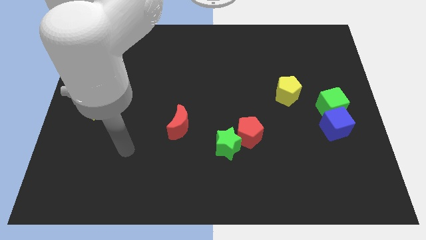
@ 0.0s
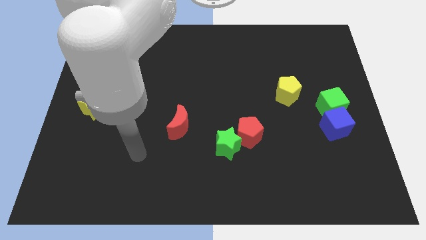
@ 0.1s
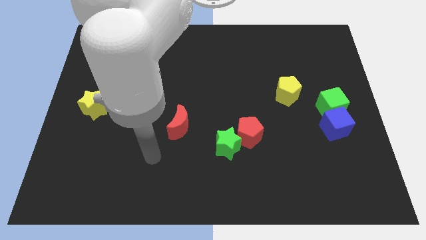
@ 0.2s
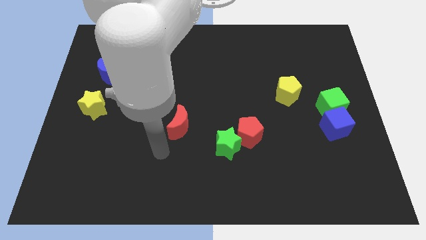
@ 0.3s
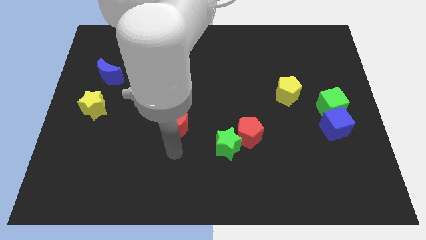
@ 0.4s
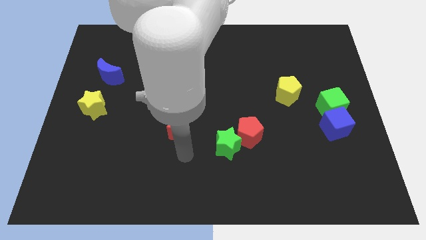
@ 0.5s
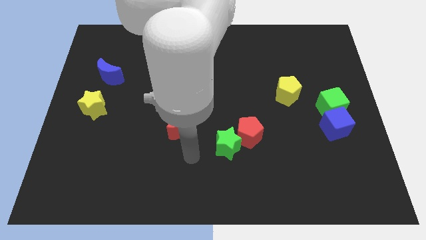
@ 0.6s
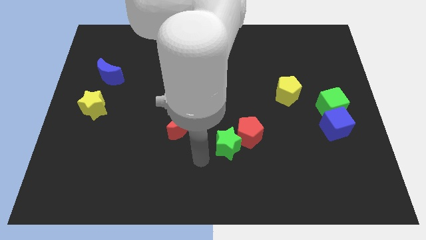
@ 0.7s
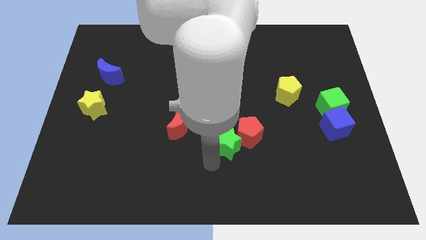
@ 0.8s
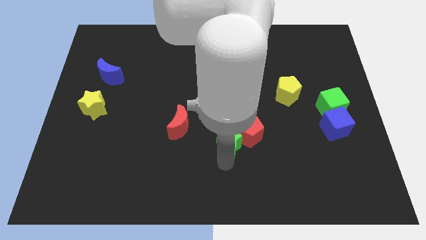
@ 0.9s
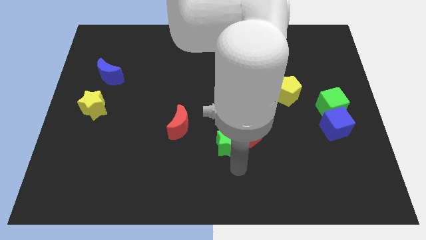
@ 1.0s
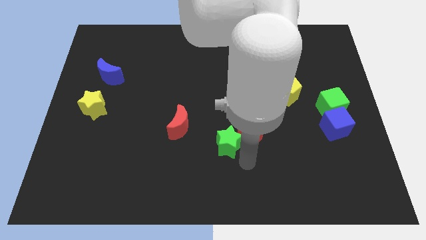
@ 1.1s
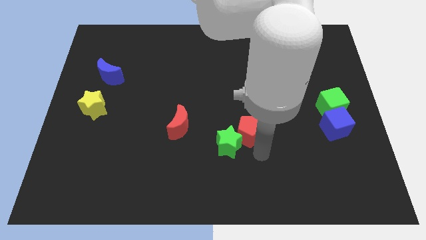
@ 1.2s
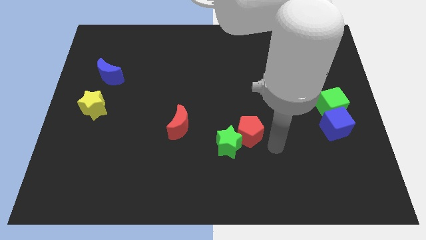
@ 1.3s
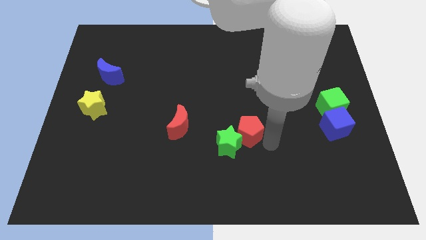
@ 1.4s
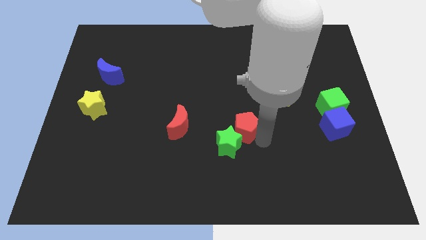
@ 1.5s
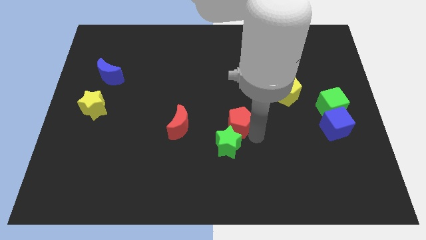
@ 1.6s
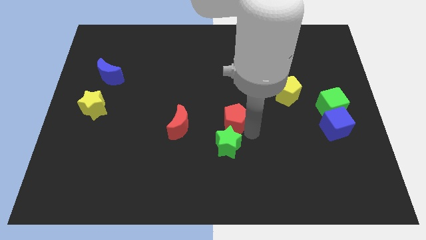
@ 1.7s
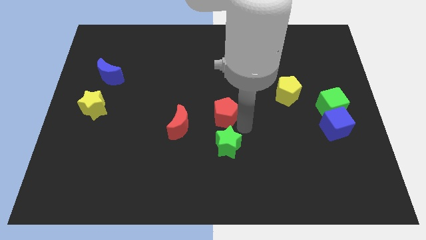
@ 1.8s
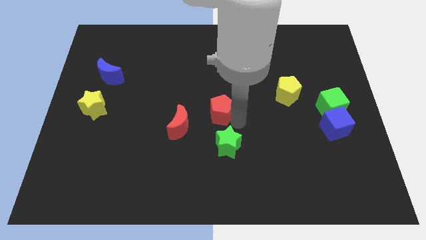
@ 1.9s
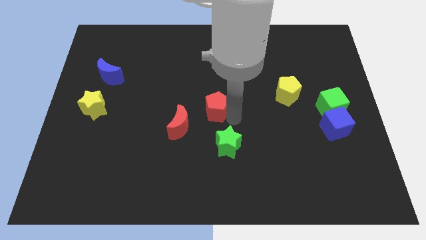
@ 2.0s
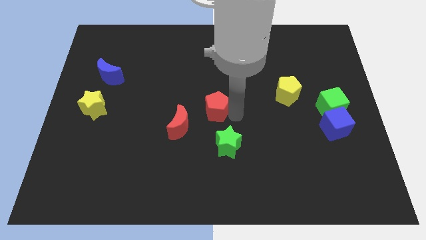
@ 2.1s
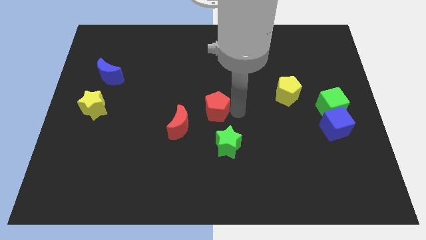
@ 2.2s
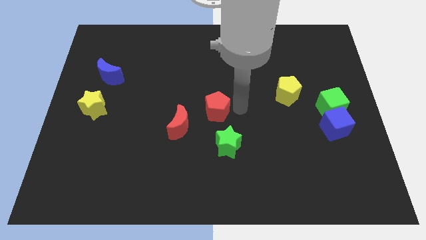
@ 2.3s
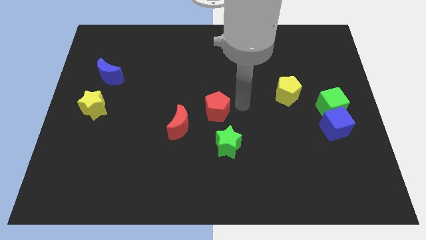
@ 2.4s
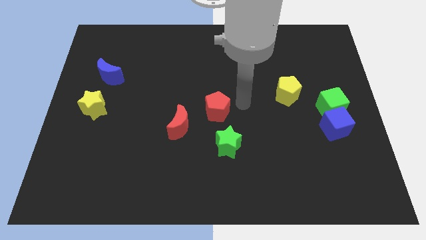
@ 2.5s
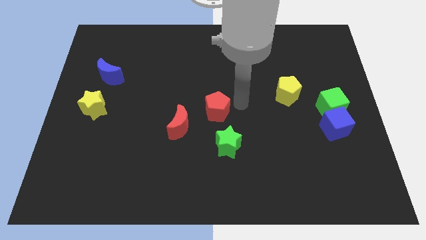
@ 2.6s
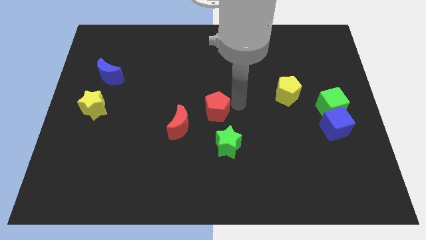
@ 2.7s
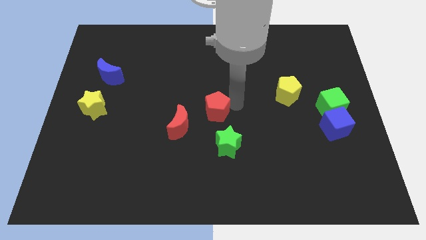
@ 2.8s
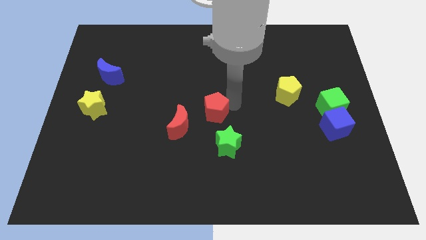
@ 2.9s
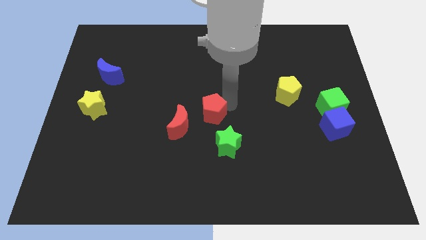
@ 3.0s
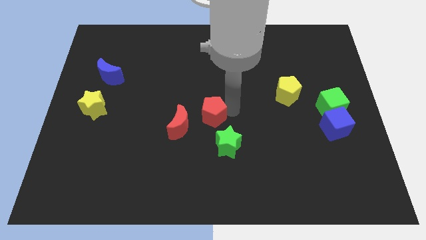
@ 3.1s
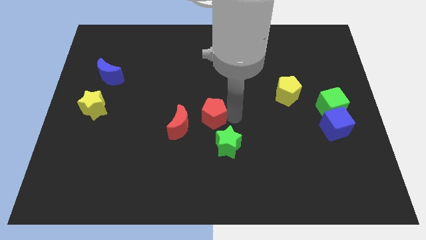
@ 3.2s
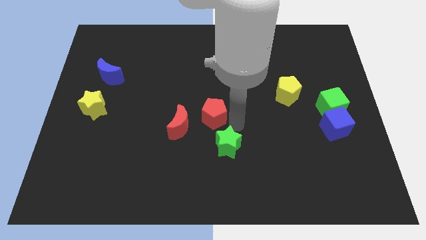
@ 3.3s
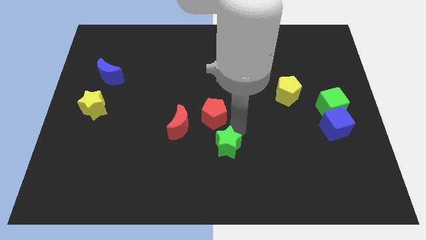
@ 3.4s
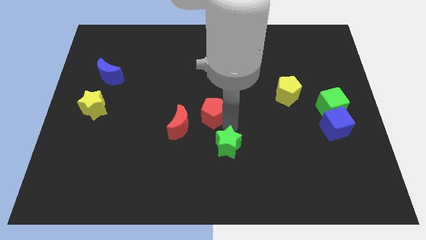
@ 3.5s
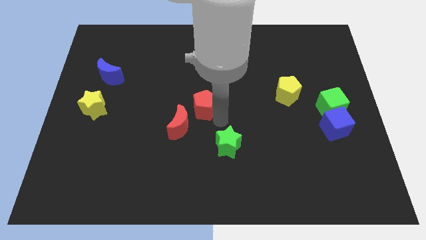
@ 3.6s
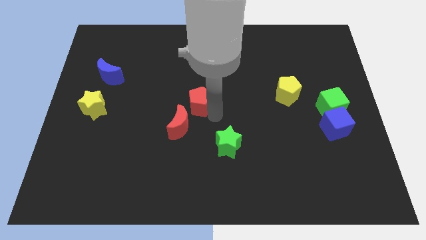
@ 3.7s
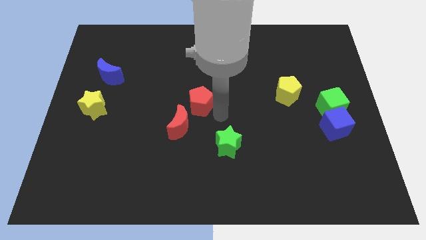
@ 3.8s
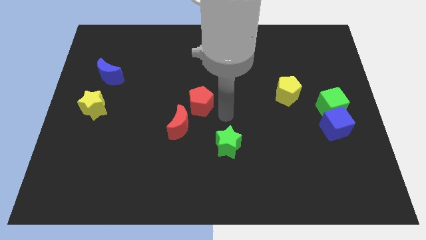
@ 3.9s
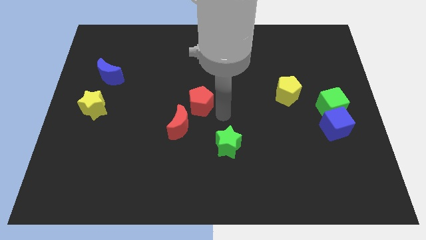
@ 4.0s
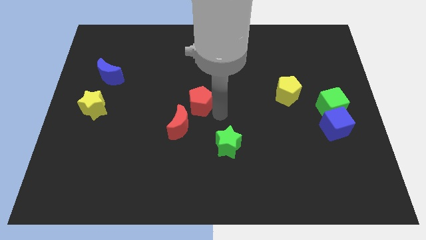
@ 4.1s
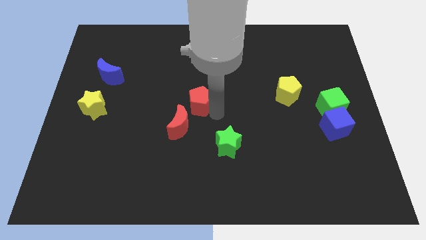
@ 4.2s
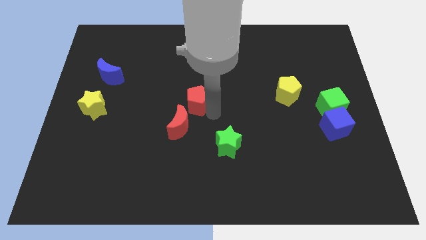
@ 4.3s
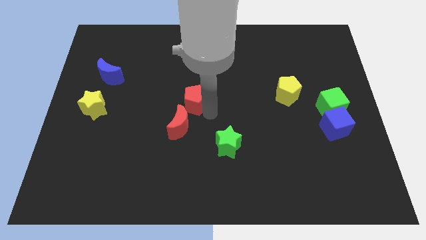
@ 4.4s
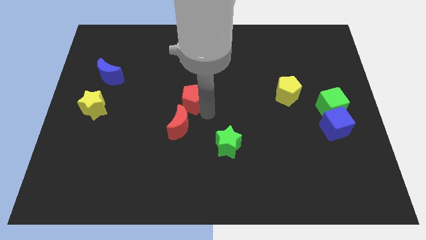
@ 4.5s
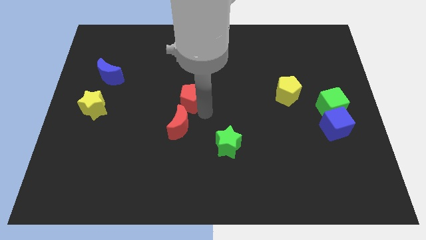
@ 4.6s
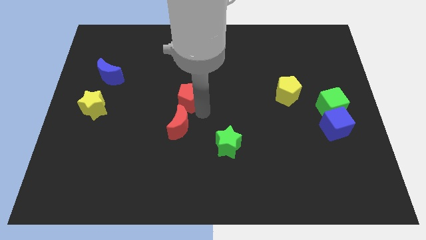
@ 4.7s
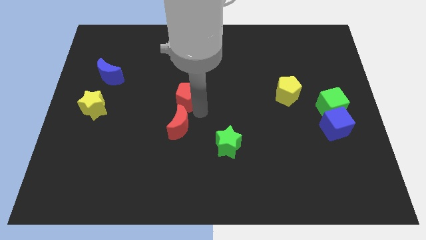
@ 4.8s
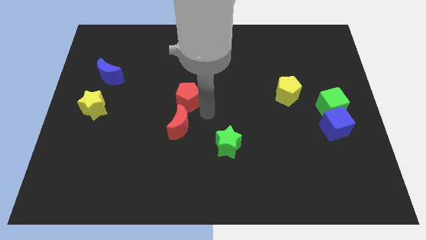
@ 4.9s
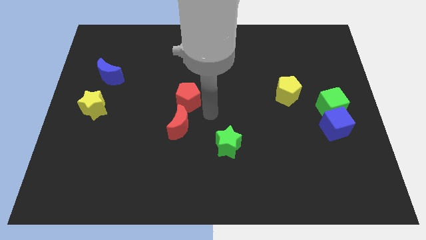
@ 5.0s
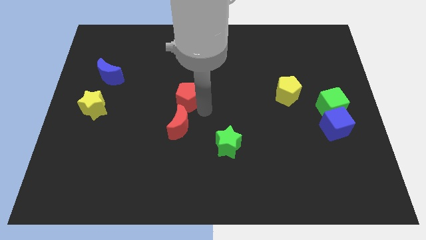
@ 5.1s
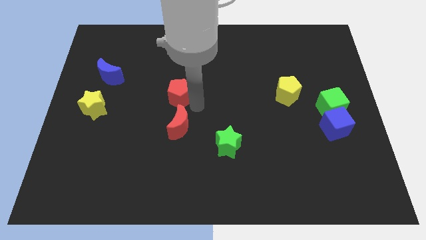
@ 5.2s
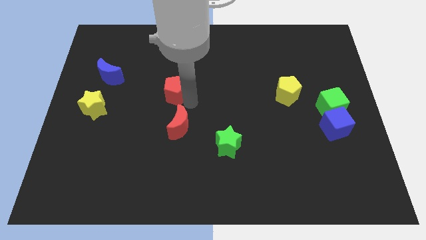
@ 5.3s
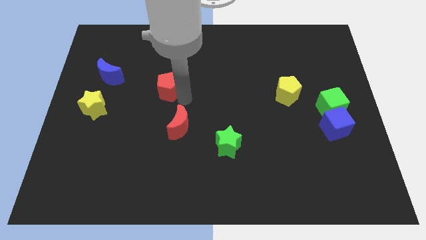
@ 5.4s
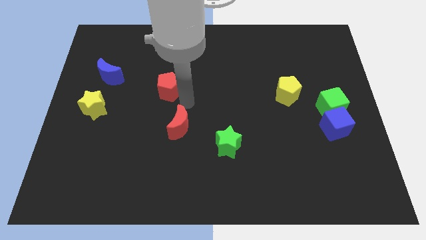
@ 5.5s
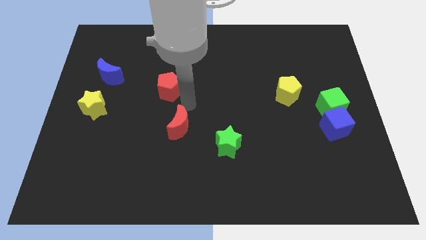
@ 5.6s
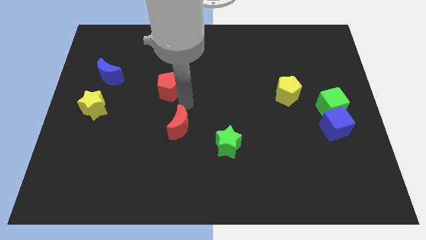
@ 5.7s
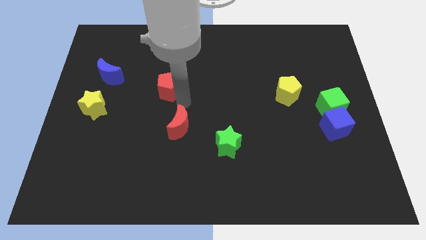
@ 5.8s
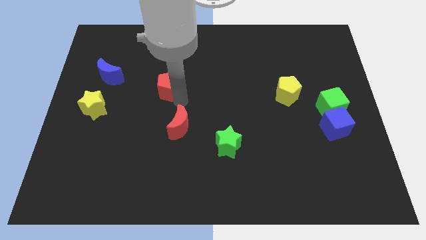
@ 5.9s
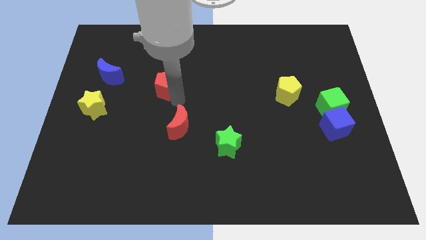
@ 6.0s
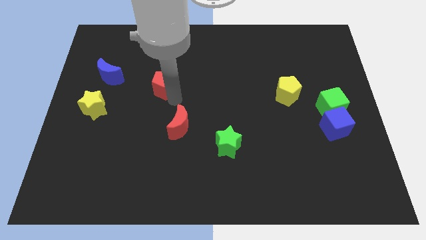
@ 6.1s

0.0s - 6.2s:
slide the red pentagon to the right side of the blue moon

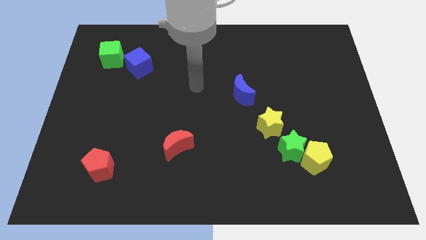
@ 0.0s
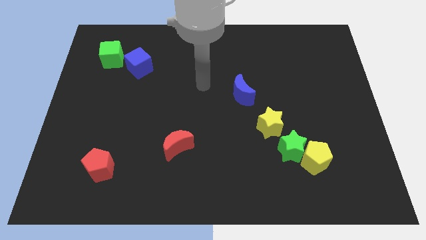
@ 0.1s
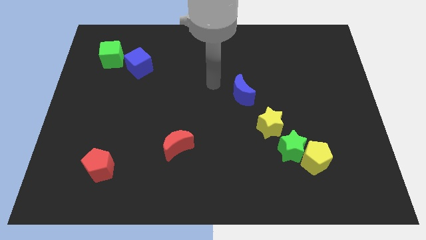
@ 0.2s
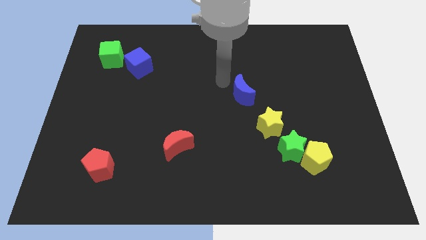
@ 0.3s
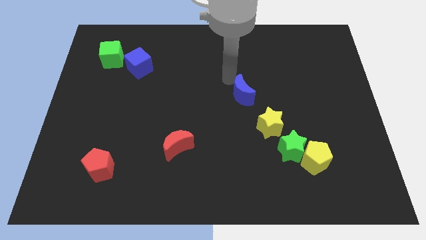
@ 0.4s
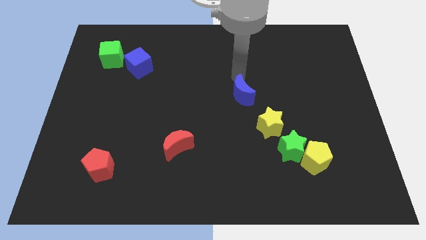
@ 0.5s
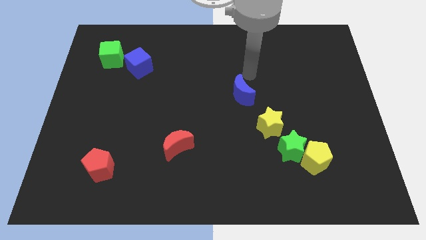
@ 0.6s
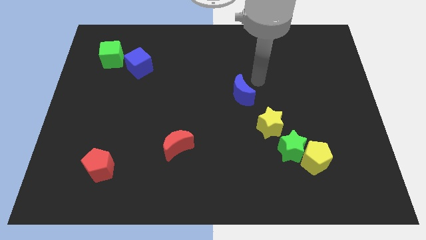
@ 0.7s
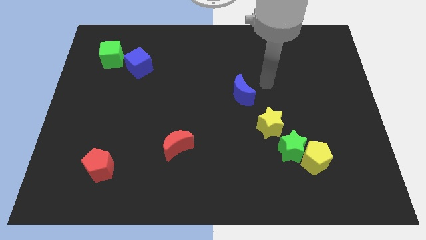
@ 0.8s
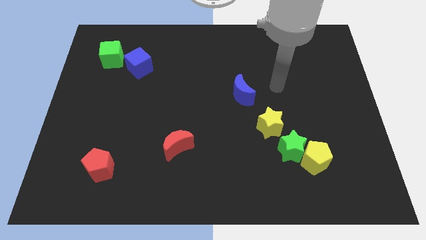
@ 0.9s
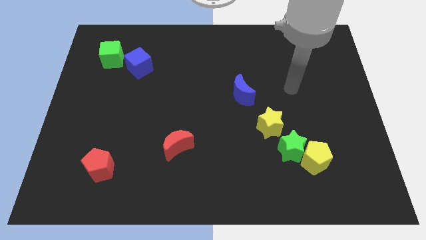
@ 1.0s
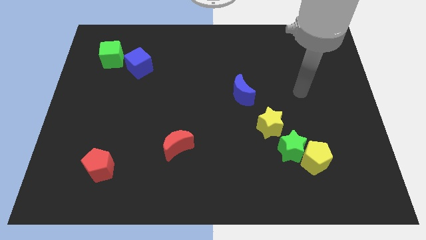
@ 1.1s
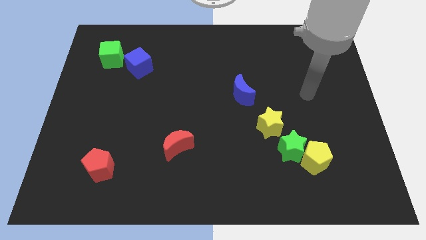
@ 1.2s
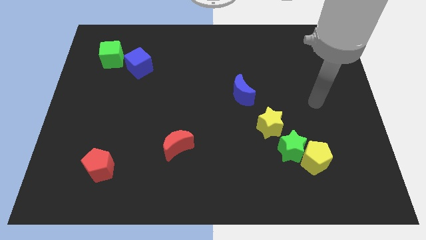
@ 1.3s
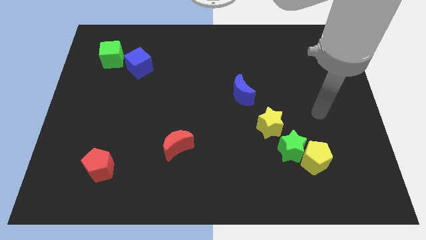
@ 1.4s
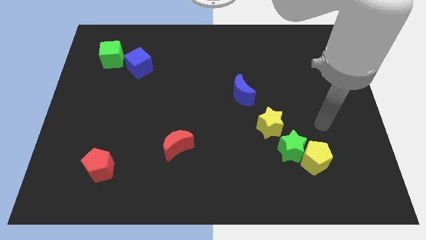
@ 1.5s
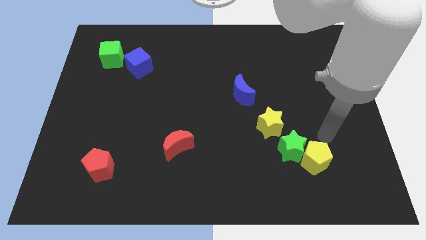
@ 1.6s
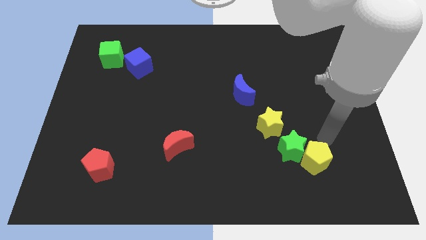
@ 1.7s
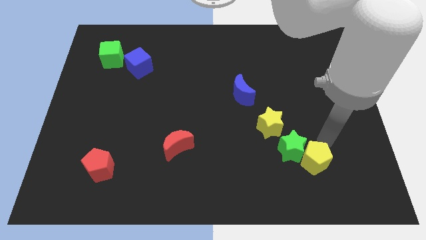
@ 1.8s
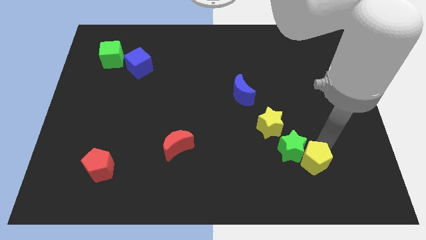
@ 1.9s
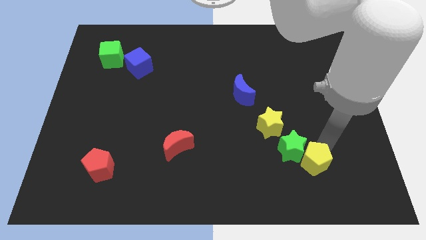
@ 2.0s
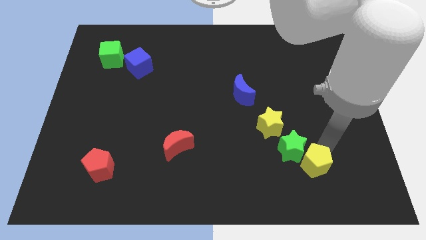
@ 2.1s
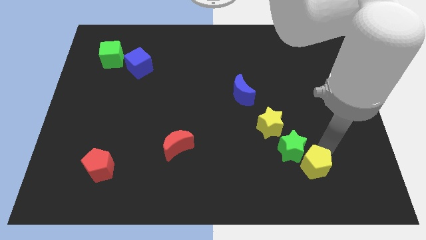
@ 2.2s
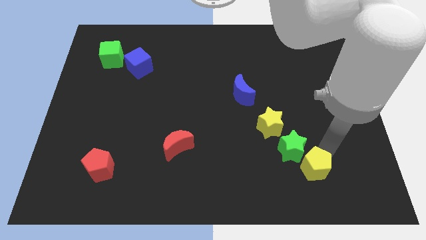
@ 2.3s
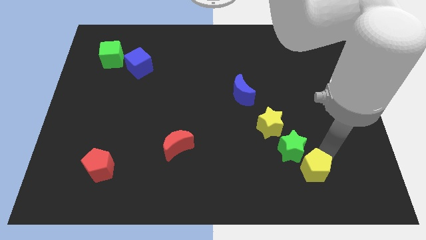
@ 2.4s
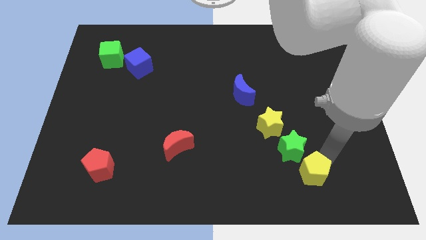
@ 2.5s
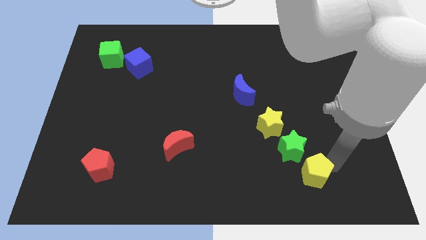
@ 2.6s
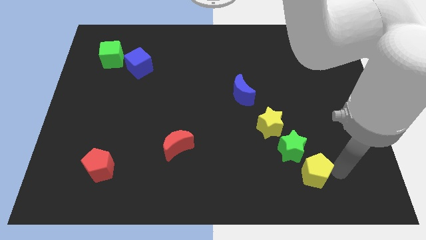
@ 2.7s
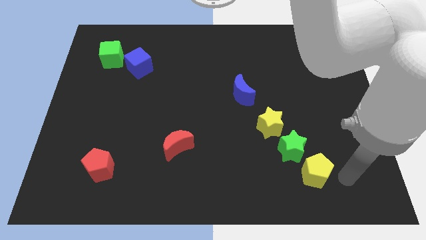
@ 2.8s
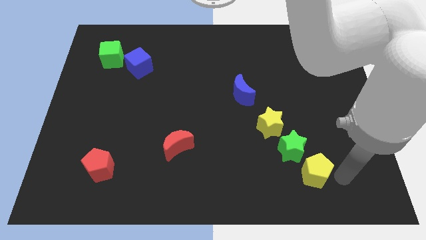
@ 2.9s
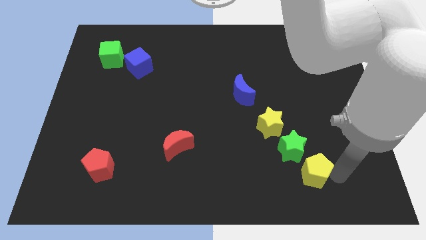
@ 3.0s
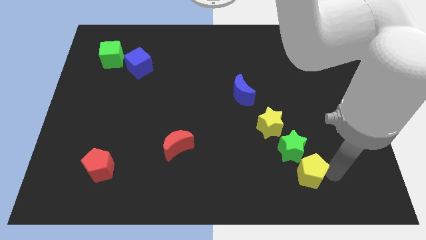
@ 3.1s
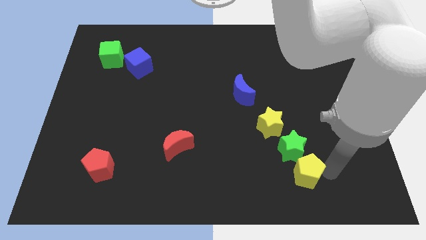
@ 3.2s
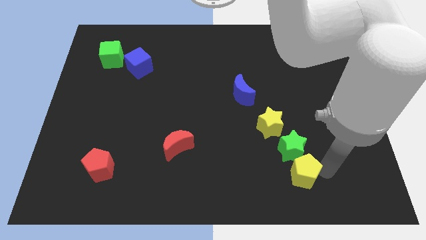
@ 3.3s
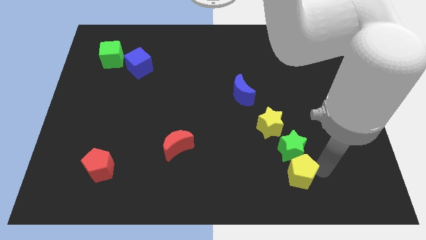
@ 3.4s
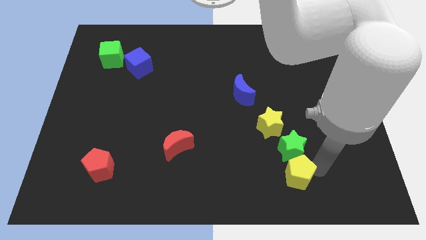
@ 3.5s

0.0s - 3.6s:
put the yellow pentagon to the bottom side of the yellow star
